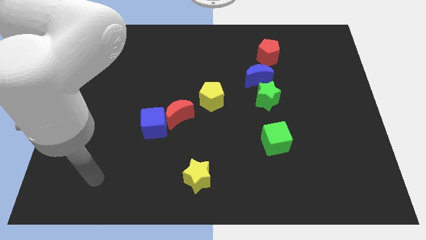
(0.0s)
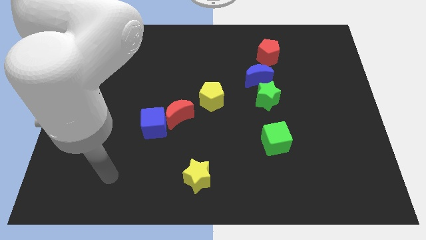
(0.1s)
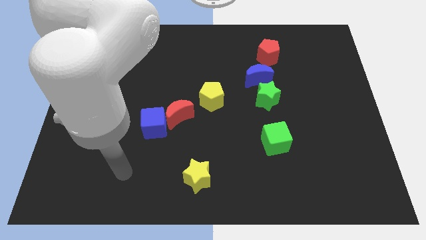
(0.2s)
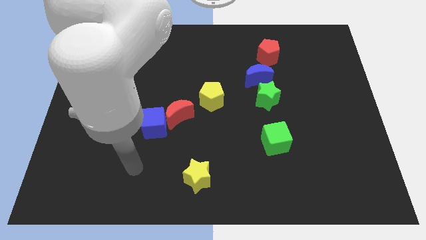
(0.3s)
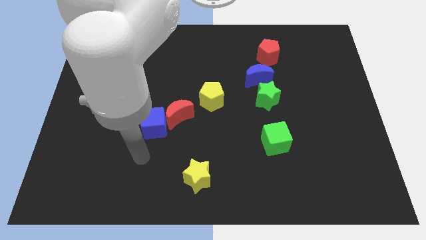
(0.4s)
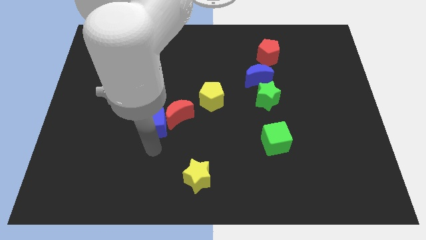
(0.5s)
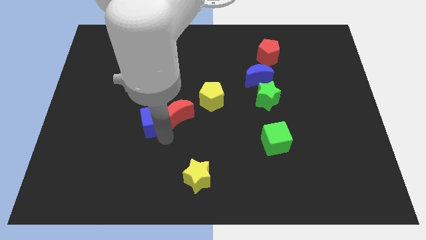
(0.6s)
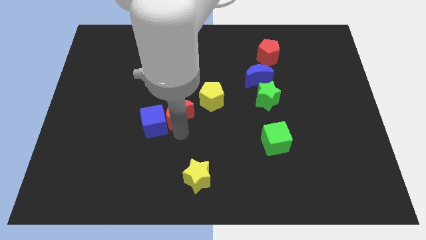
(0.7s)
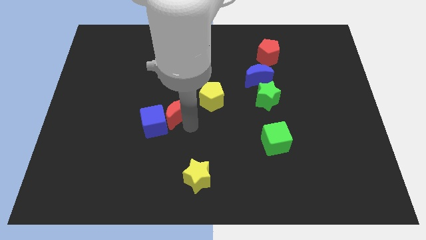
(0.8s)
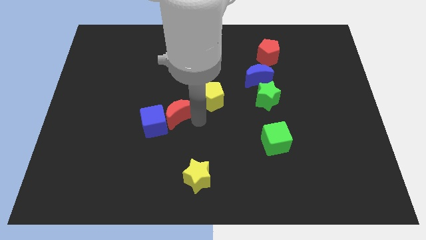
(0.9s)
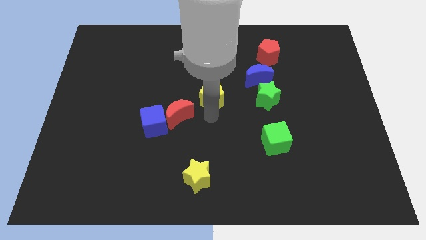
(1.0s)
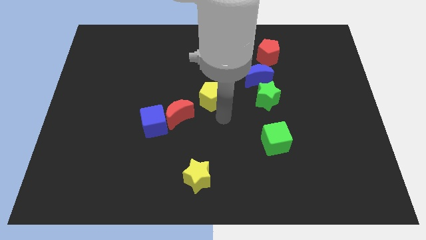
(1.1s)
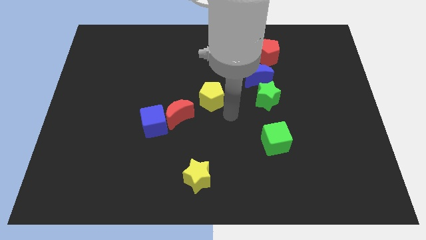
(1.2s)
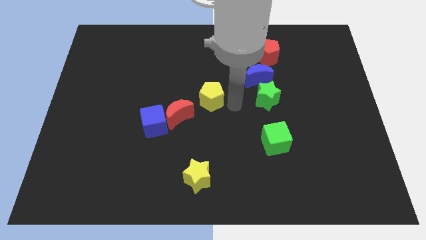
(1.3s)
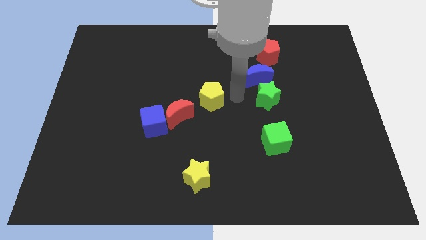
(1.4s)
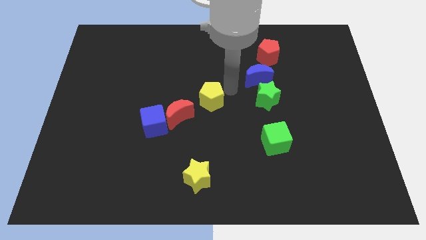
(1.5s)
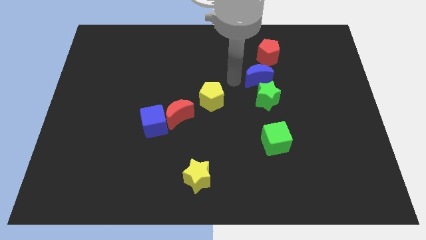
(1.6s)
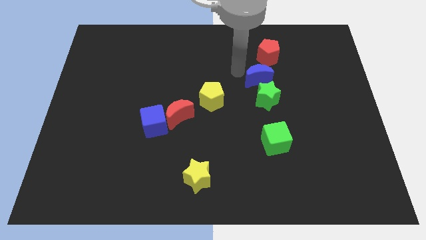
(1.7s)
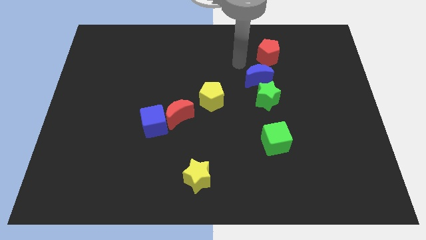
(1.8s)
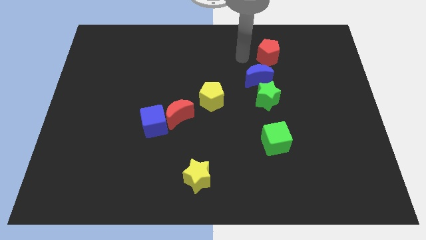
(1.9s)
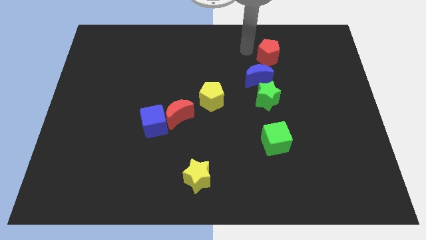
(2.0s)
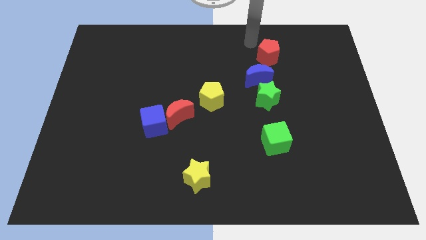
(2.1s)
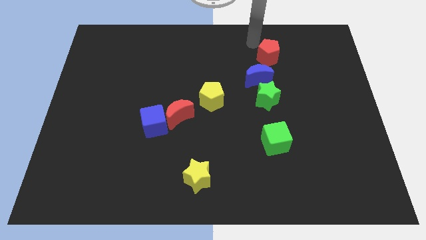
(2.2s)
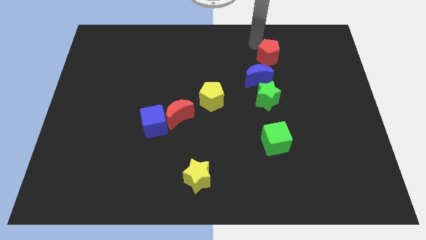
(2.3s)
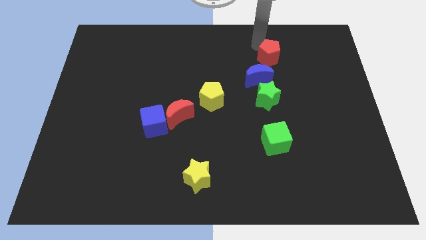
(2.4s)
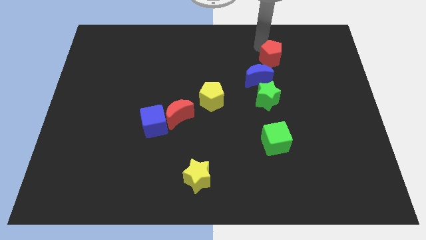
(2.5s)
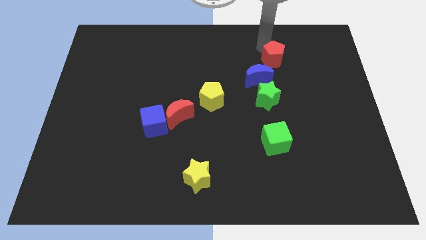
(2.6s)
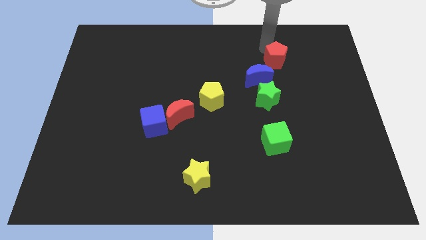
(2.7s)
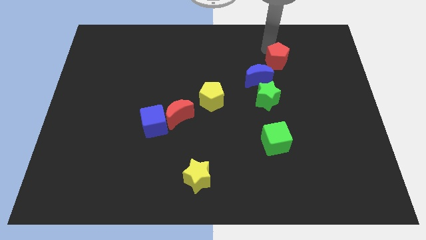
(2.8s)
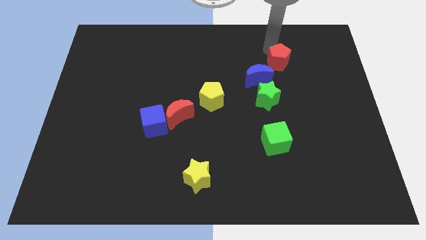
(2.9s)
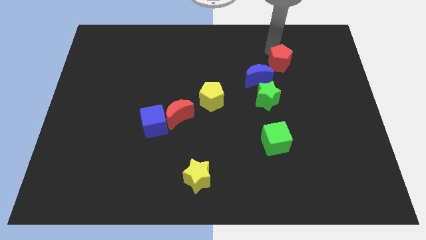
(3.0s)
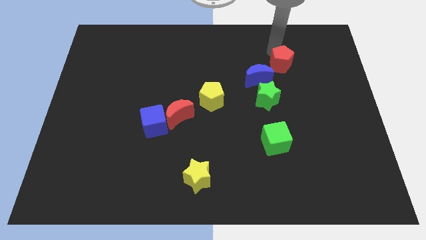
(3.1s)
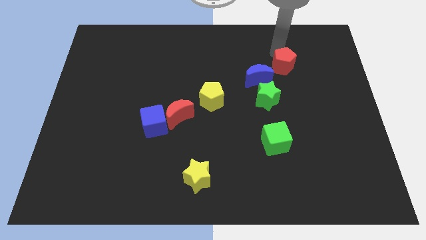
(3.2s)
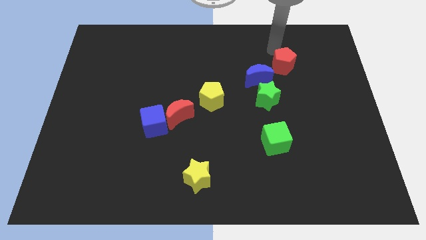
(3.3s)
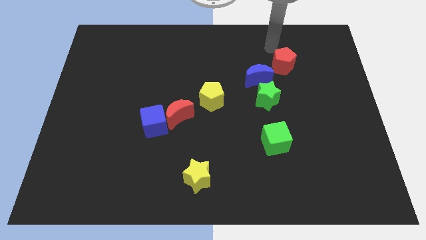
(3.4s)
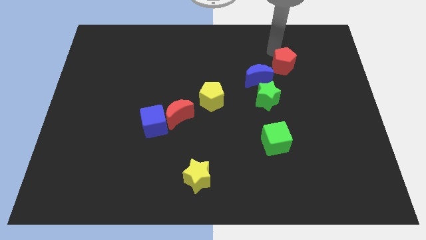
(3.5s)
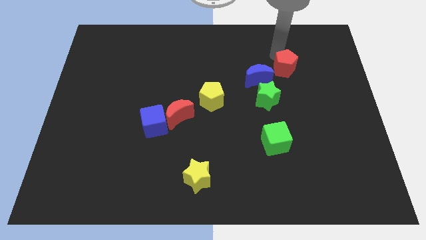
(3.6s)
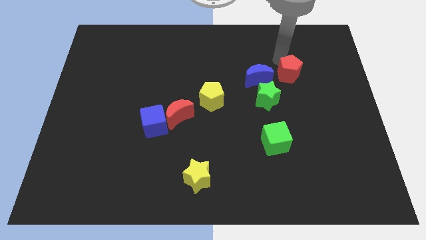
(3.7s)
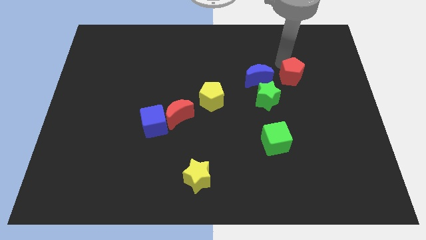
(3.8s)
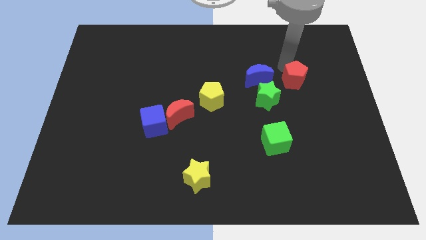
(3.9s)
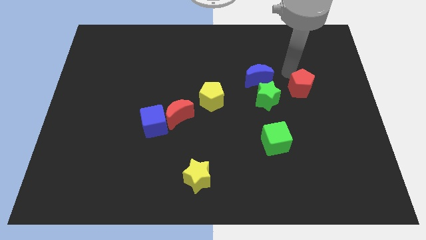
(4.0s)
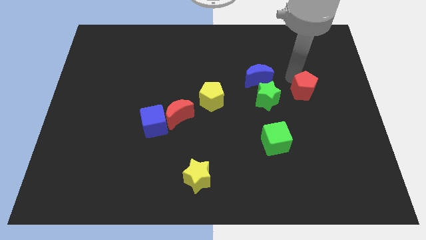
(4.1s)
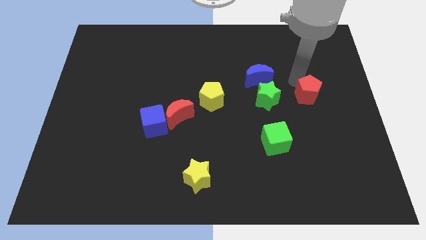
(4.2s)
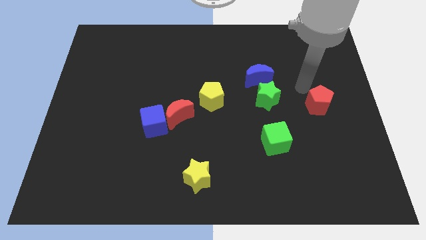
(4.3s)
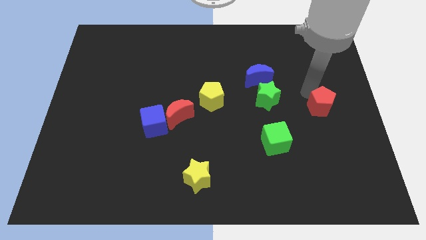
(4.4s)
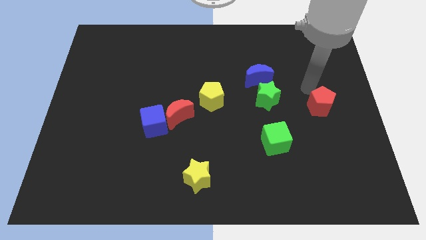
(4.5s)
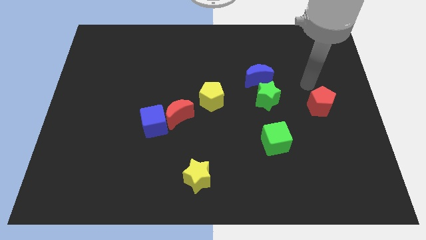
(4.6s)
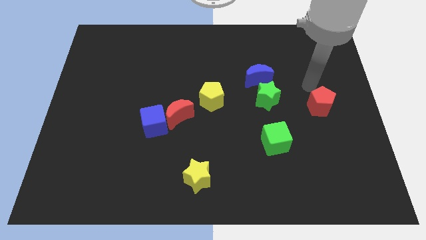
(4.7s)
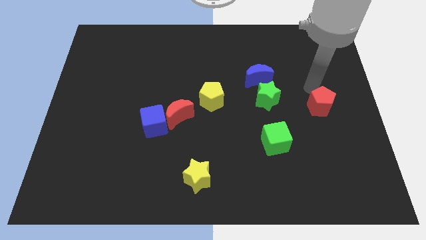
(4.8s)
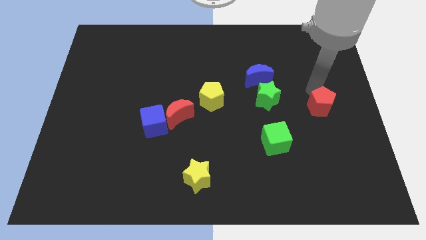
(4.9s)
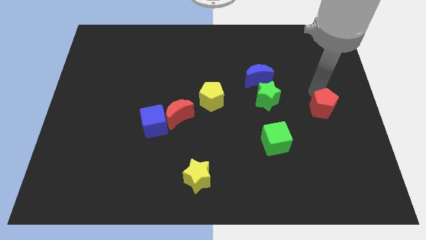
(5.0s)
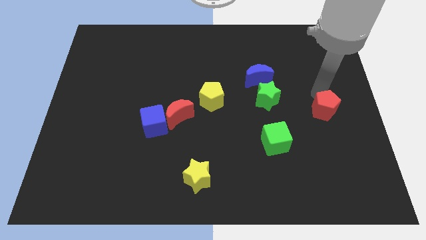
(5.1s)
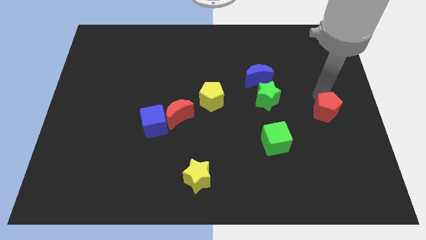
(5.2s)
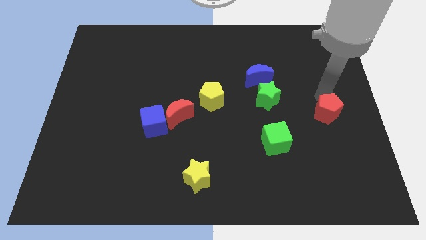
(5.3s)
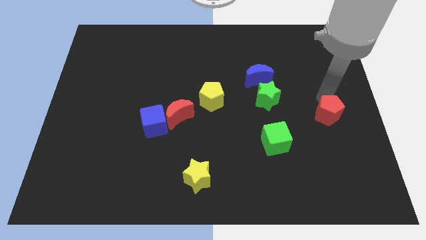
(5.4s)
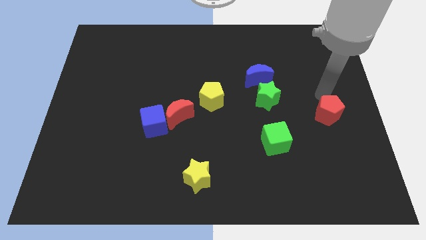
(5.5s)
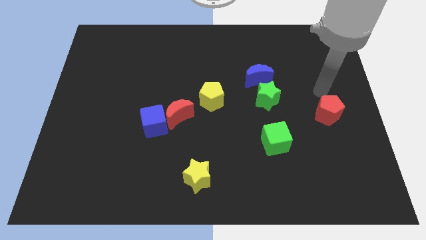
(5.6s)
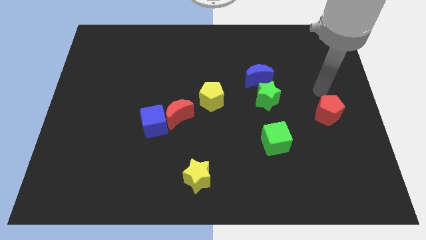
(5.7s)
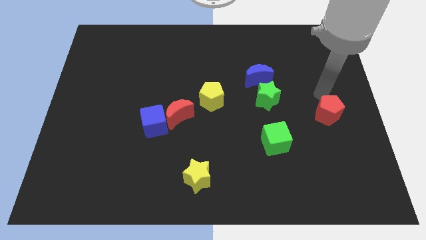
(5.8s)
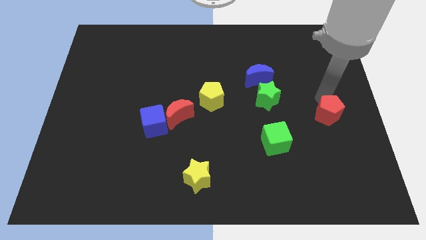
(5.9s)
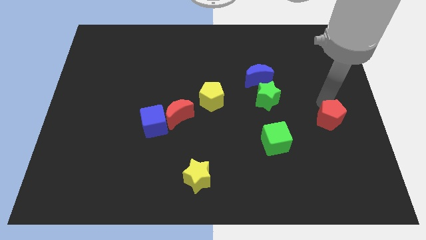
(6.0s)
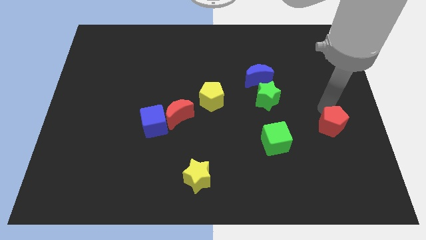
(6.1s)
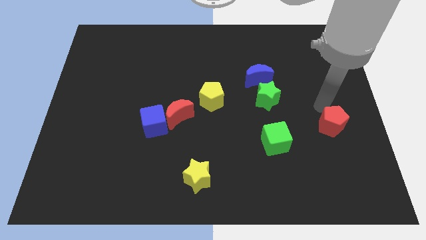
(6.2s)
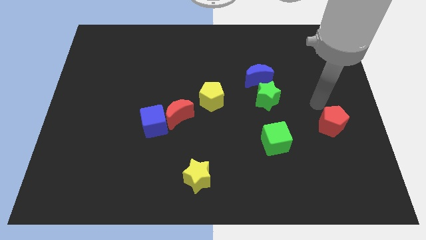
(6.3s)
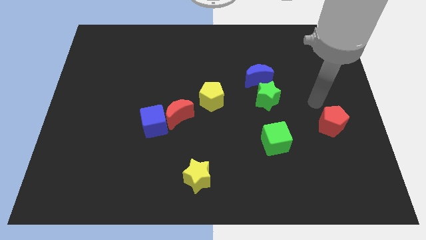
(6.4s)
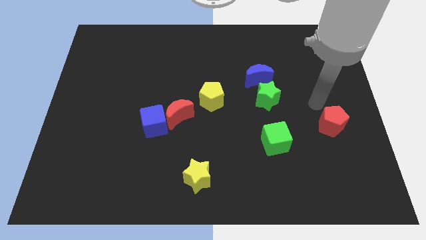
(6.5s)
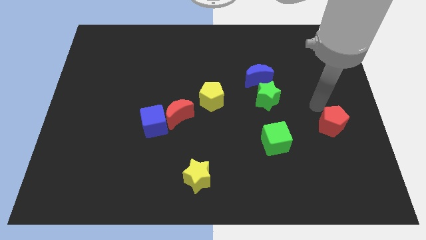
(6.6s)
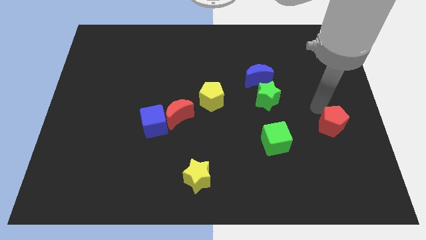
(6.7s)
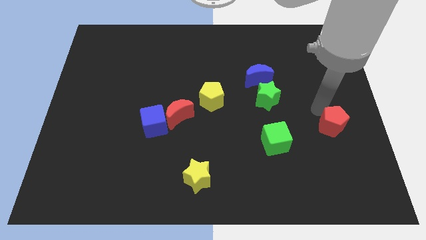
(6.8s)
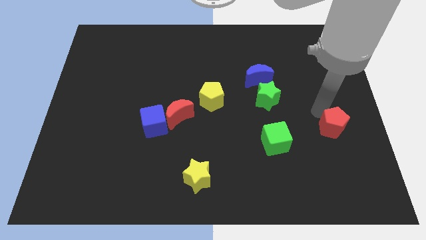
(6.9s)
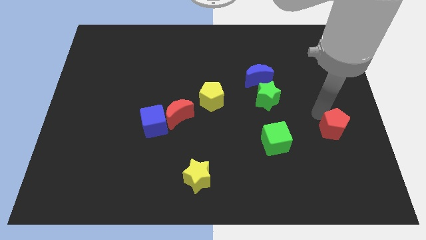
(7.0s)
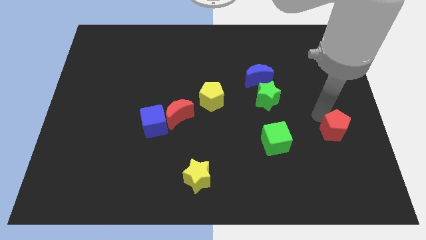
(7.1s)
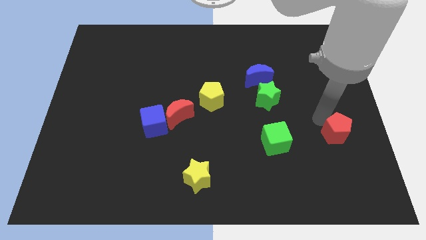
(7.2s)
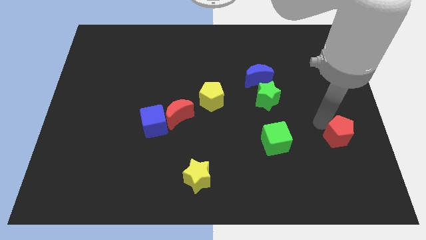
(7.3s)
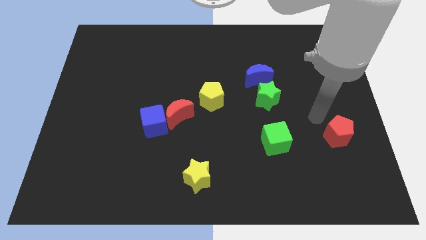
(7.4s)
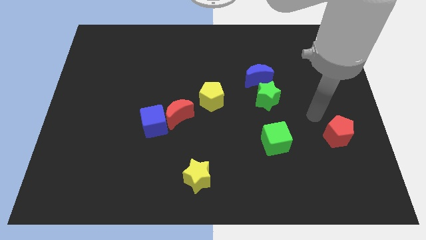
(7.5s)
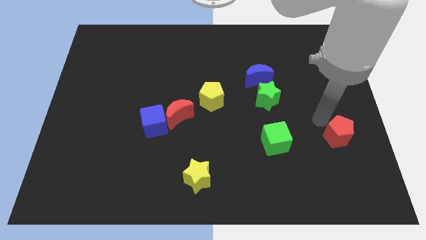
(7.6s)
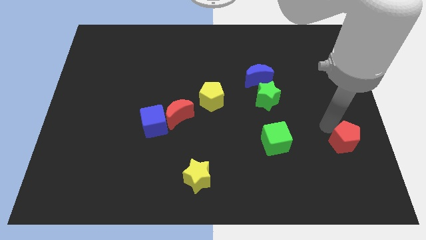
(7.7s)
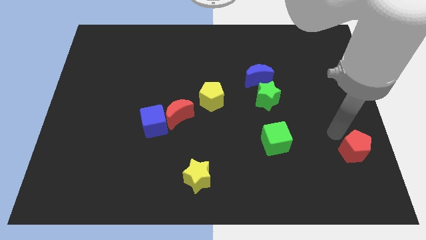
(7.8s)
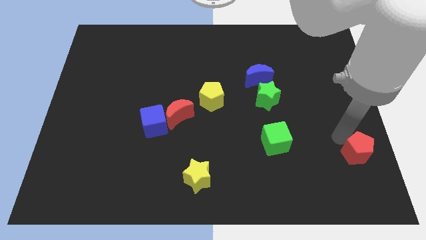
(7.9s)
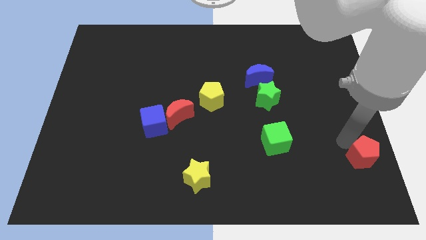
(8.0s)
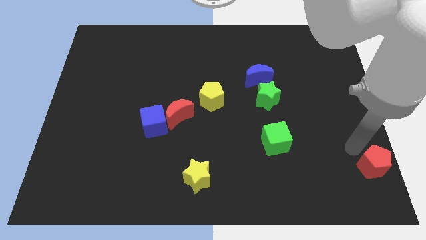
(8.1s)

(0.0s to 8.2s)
push the red pentagon to the lower right corner
